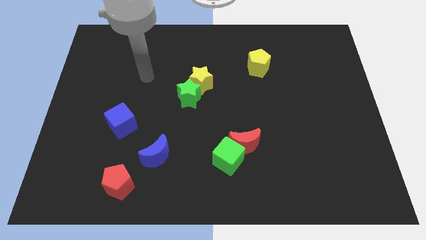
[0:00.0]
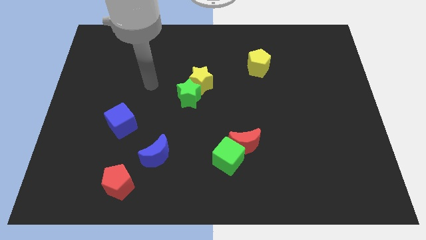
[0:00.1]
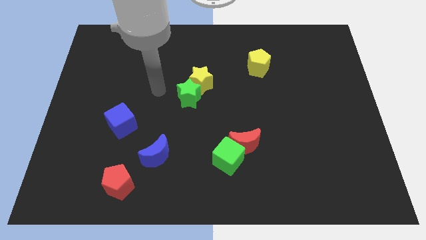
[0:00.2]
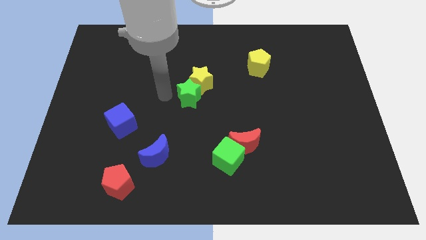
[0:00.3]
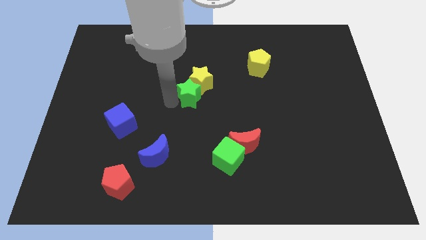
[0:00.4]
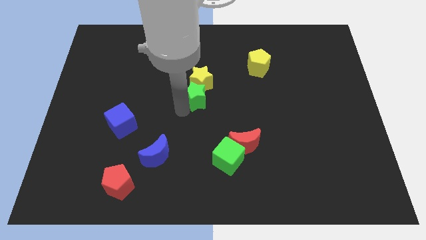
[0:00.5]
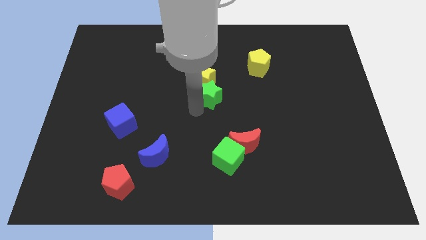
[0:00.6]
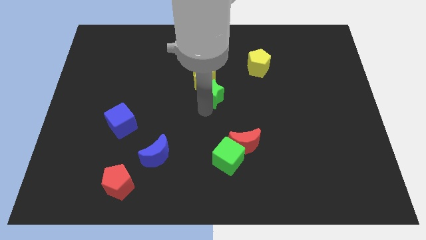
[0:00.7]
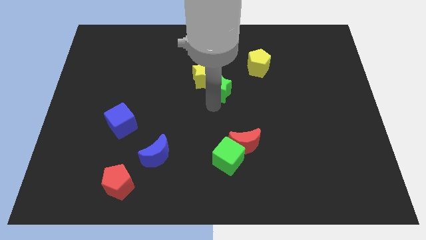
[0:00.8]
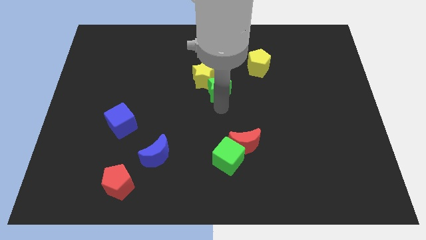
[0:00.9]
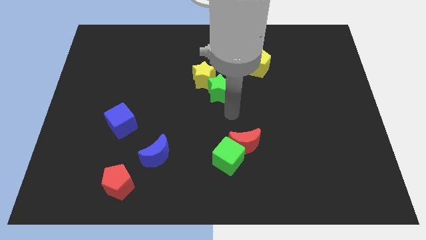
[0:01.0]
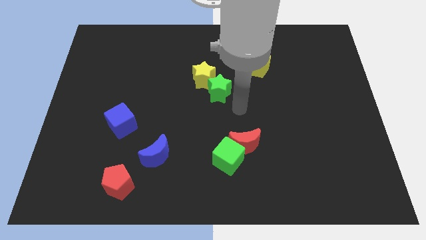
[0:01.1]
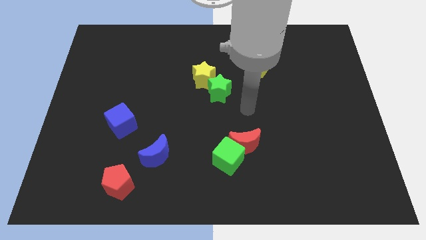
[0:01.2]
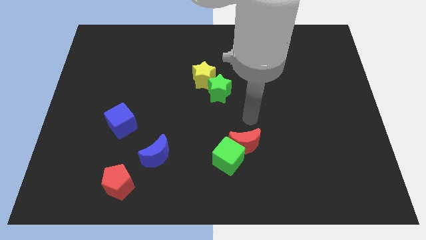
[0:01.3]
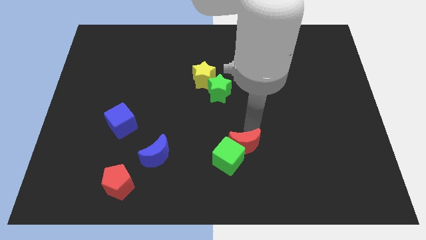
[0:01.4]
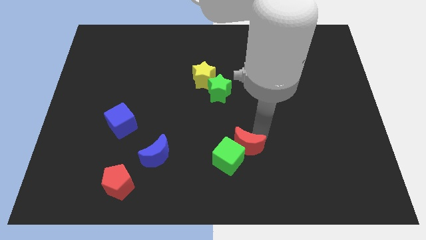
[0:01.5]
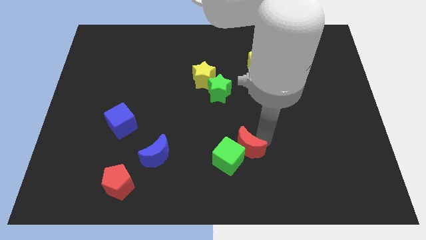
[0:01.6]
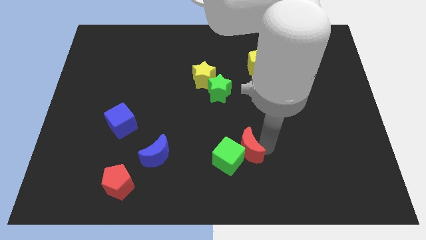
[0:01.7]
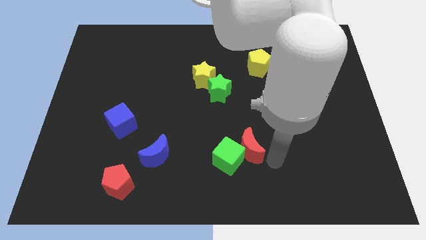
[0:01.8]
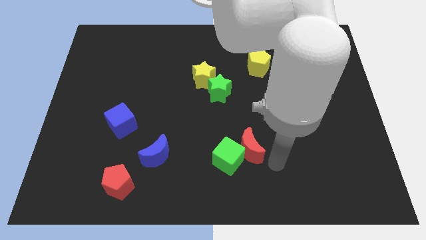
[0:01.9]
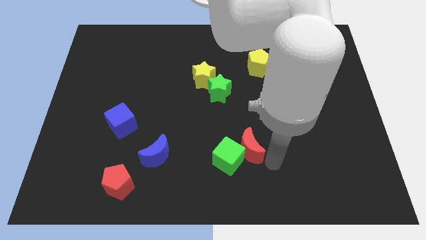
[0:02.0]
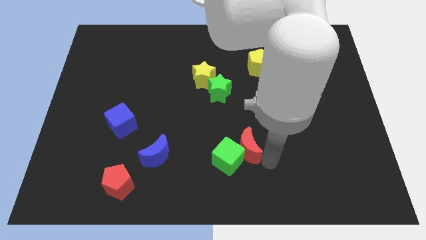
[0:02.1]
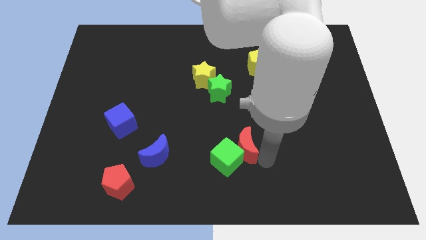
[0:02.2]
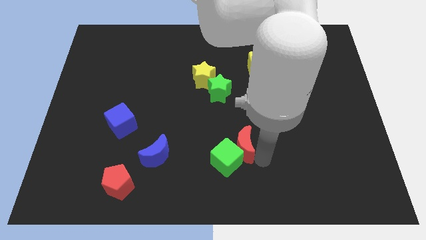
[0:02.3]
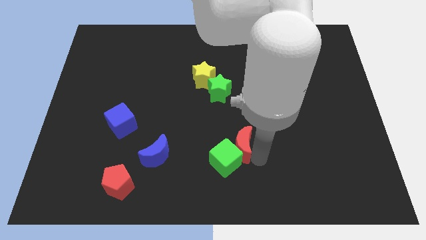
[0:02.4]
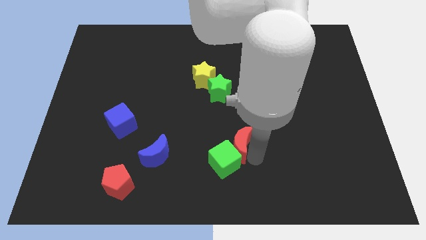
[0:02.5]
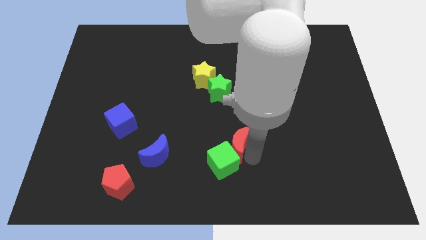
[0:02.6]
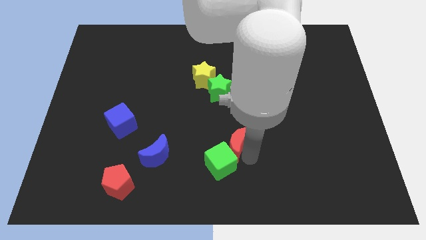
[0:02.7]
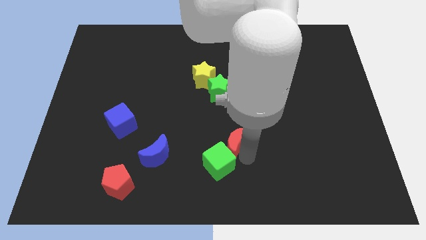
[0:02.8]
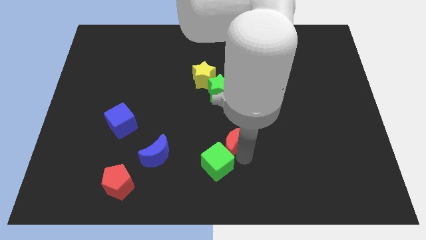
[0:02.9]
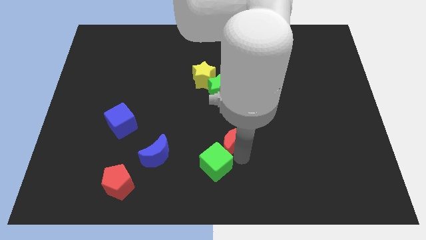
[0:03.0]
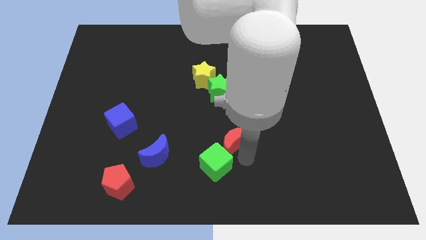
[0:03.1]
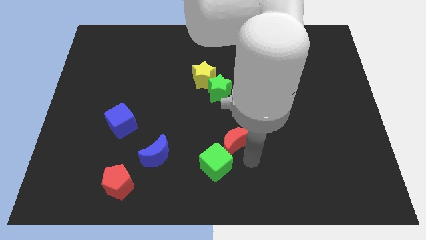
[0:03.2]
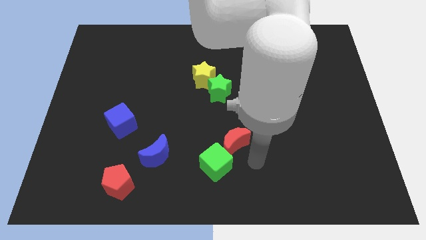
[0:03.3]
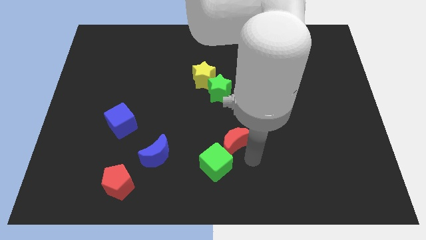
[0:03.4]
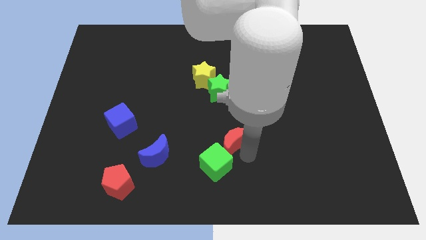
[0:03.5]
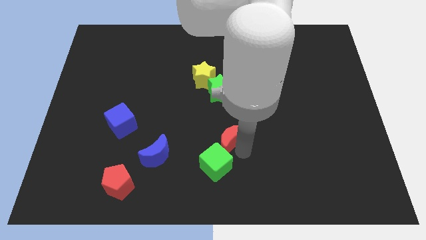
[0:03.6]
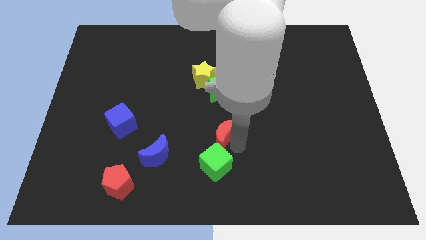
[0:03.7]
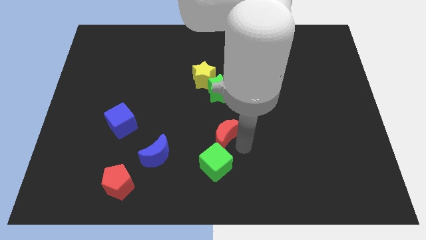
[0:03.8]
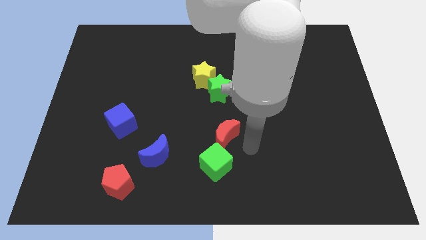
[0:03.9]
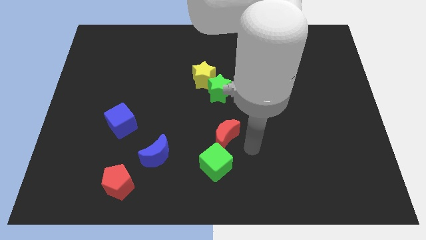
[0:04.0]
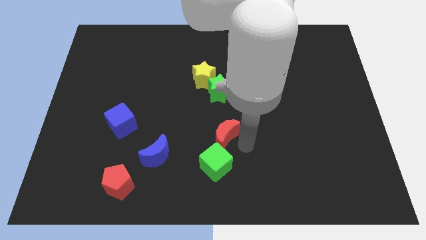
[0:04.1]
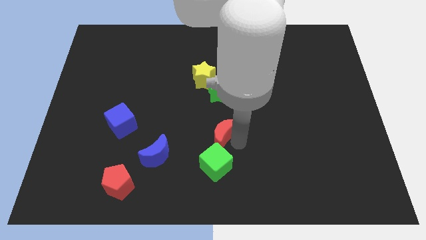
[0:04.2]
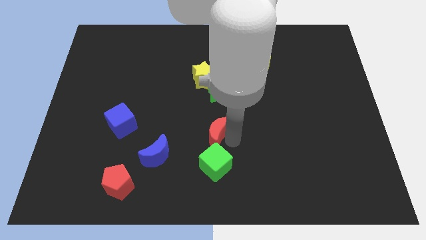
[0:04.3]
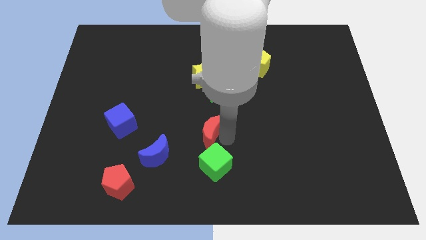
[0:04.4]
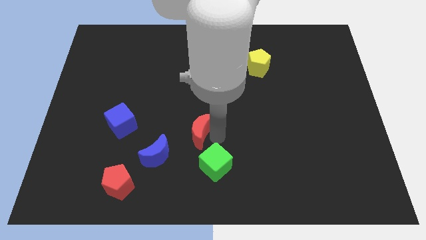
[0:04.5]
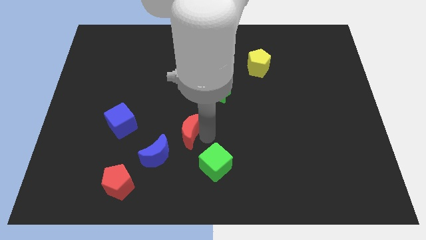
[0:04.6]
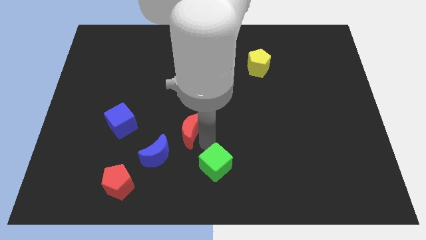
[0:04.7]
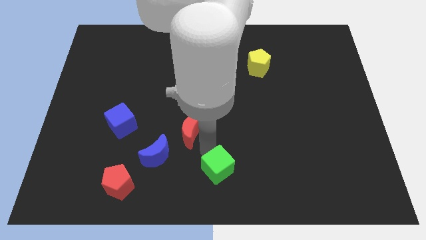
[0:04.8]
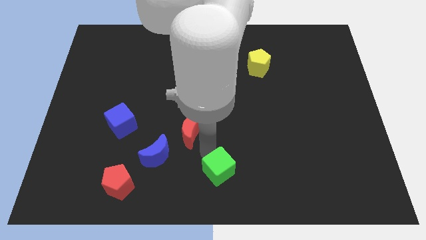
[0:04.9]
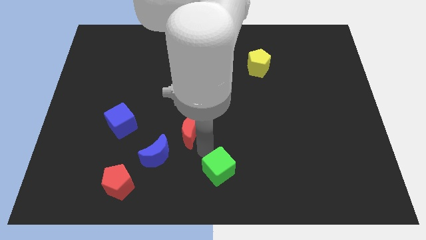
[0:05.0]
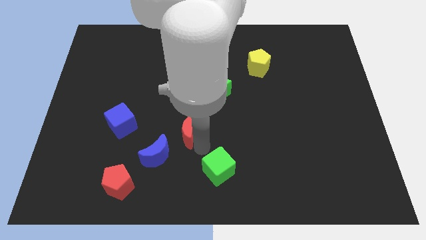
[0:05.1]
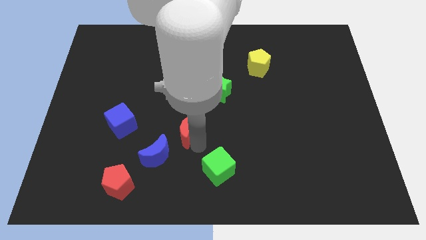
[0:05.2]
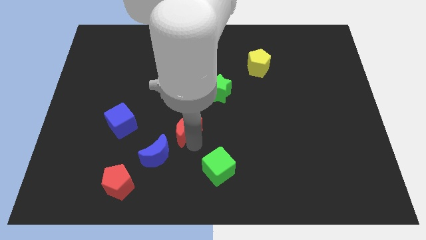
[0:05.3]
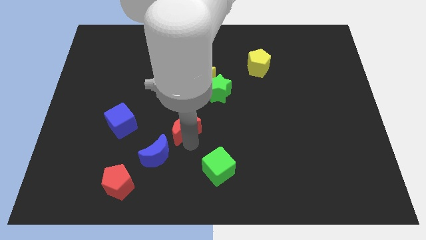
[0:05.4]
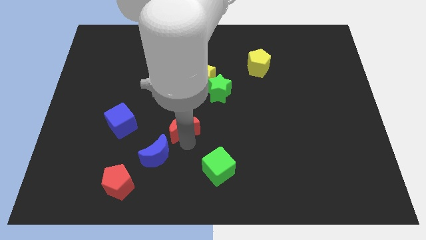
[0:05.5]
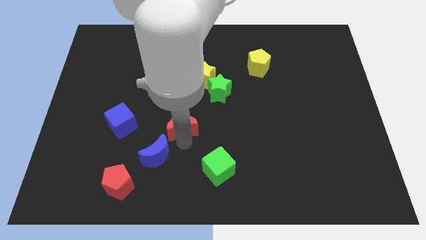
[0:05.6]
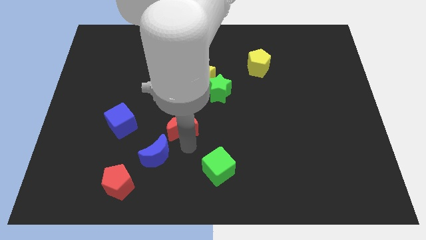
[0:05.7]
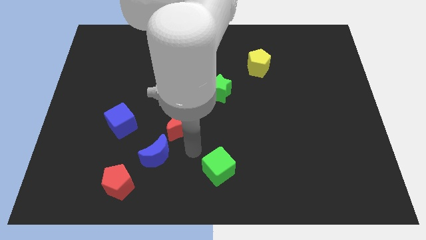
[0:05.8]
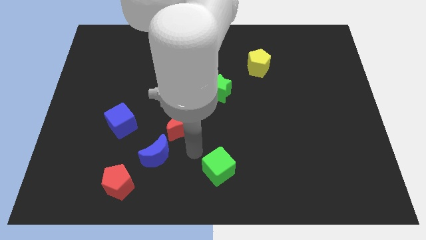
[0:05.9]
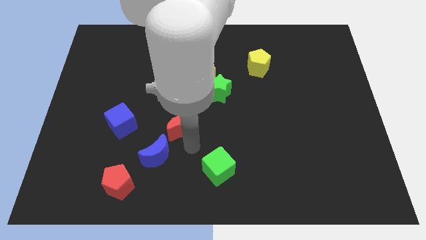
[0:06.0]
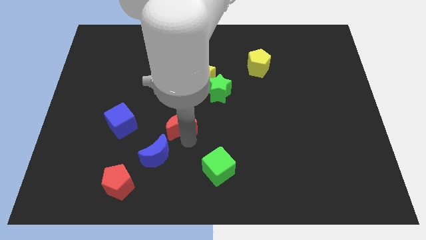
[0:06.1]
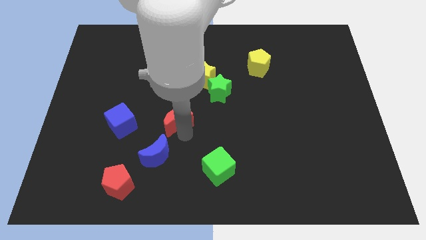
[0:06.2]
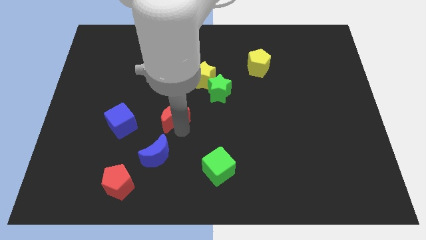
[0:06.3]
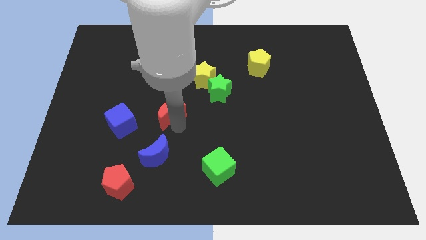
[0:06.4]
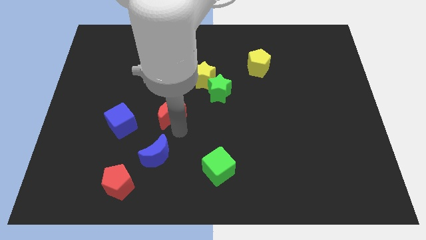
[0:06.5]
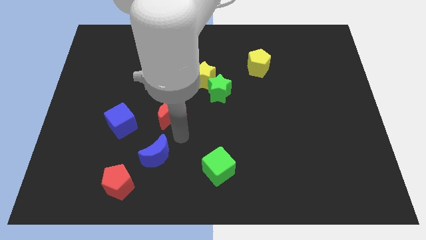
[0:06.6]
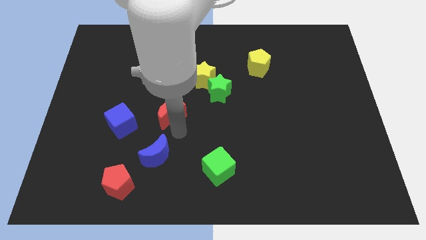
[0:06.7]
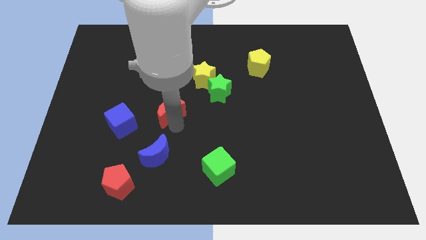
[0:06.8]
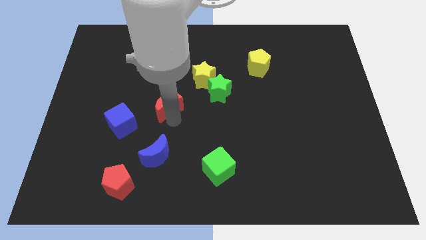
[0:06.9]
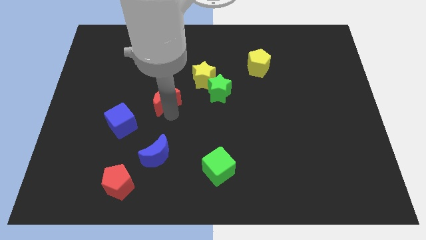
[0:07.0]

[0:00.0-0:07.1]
move the red moon upwards and left

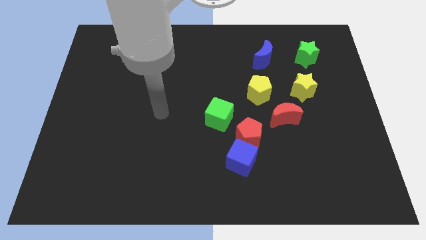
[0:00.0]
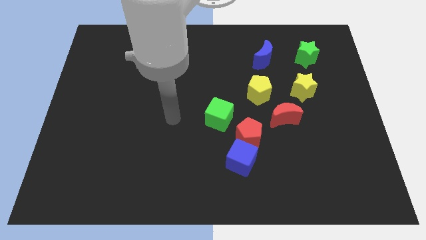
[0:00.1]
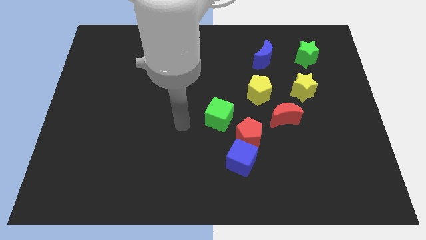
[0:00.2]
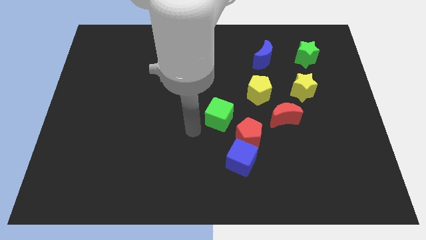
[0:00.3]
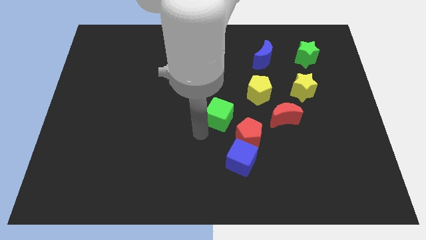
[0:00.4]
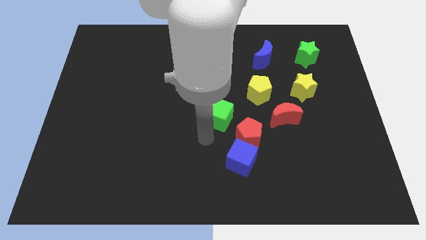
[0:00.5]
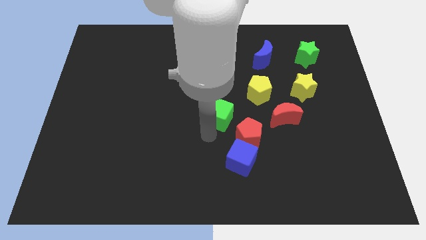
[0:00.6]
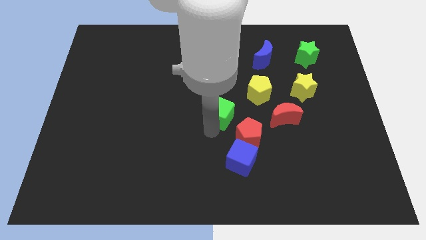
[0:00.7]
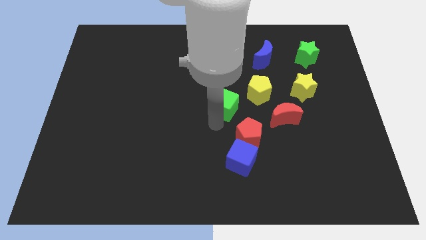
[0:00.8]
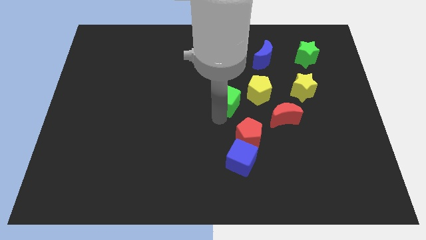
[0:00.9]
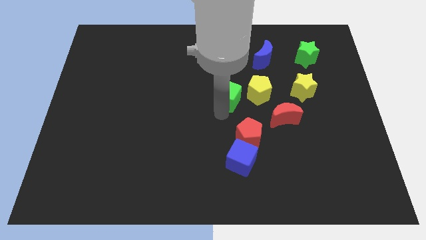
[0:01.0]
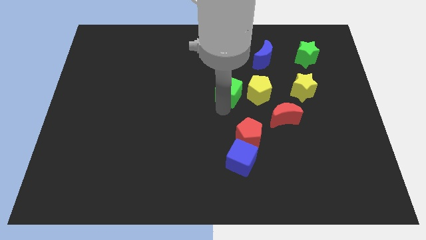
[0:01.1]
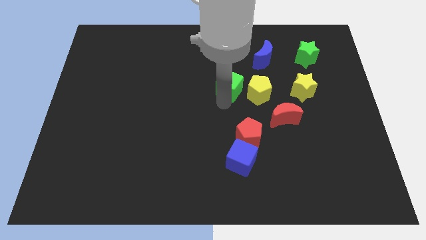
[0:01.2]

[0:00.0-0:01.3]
slightly slide the green cube upwards and then right
